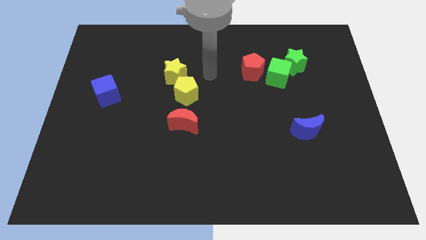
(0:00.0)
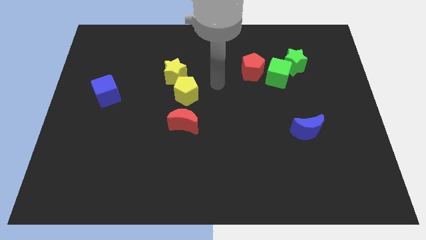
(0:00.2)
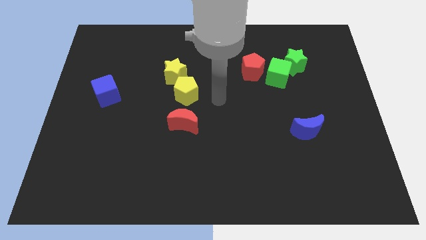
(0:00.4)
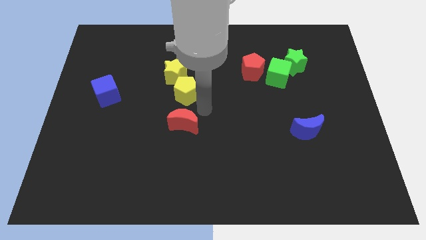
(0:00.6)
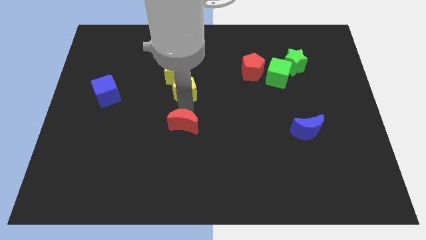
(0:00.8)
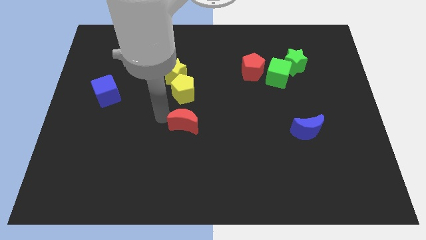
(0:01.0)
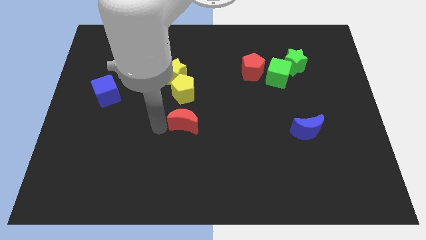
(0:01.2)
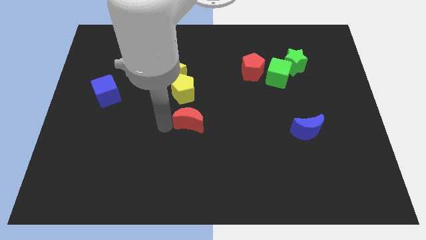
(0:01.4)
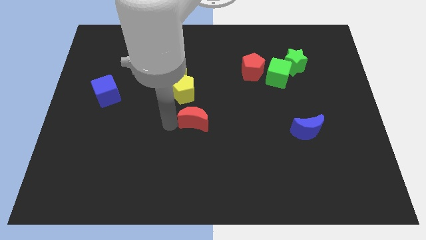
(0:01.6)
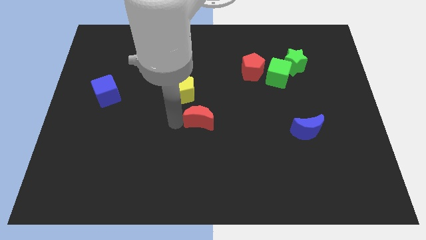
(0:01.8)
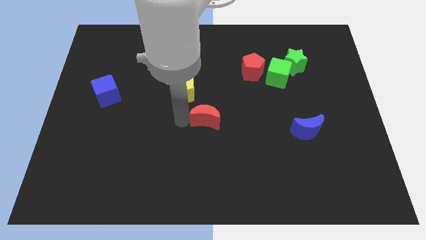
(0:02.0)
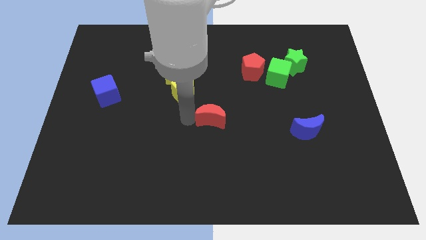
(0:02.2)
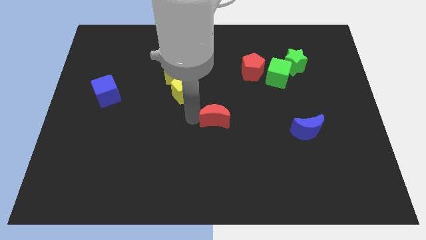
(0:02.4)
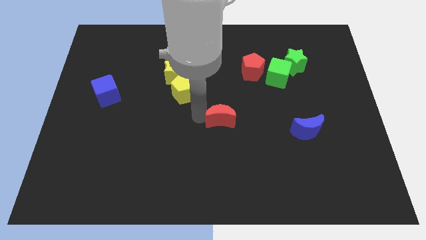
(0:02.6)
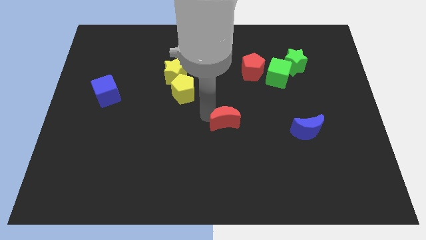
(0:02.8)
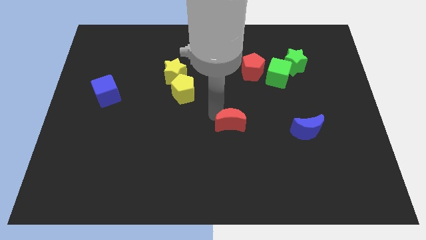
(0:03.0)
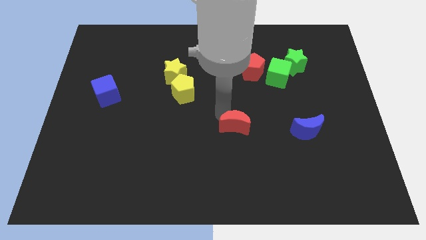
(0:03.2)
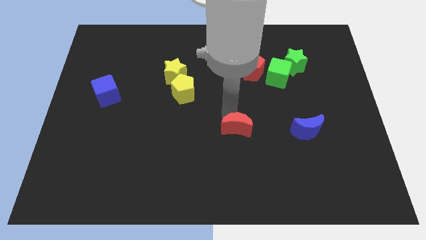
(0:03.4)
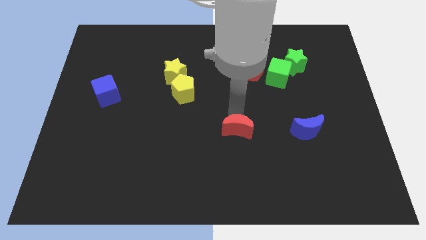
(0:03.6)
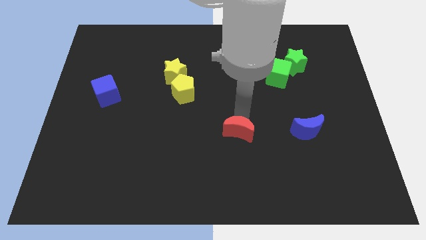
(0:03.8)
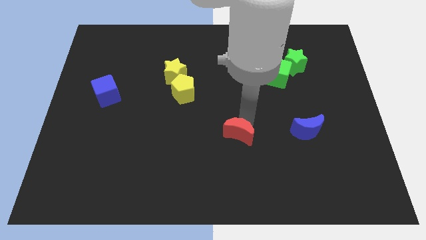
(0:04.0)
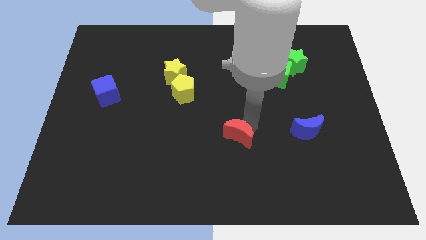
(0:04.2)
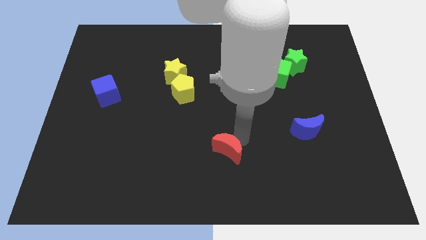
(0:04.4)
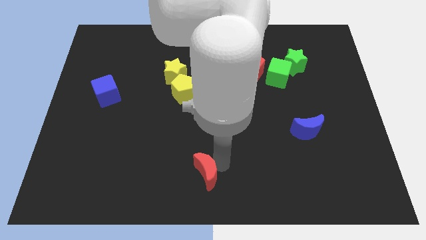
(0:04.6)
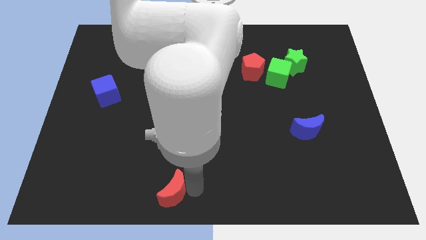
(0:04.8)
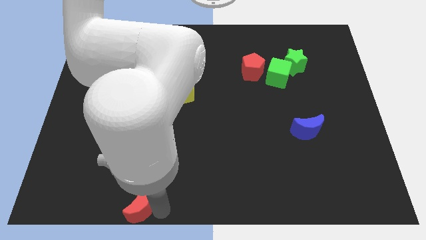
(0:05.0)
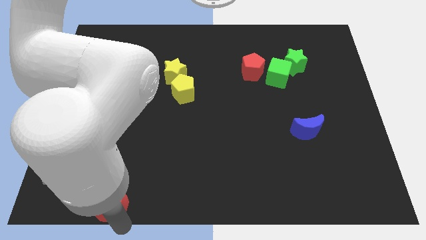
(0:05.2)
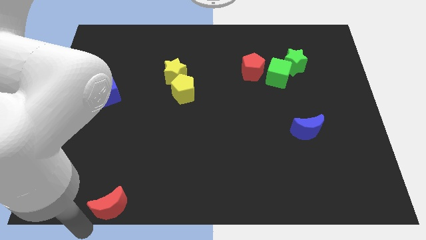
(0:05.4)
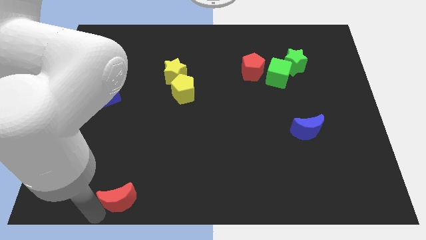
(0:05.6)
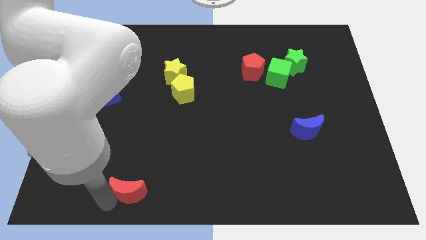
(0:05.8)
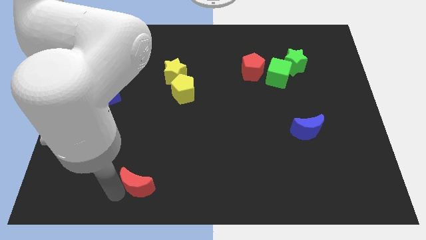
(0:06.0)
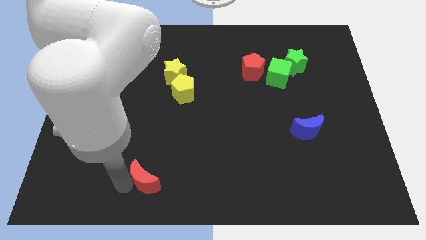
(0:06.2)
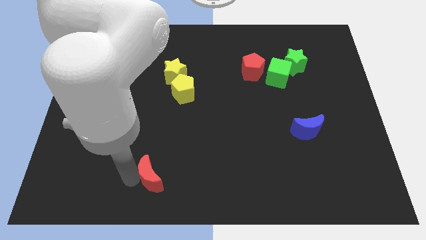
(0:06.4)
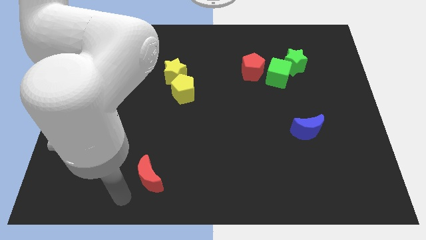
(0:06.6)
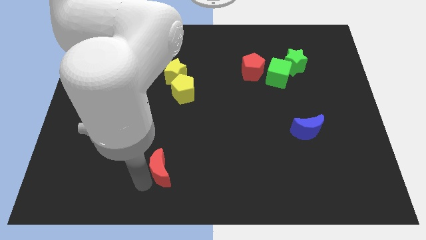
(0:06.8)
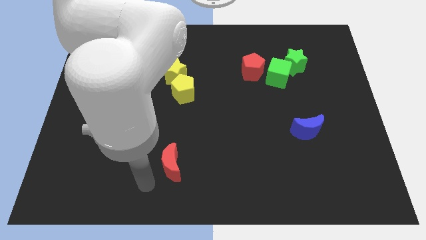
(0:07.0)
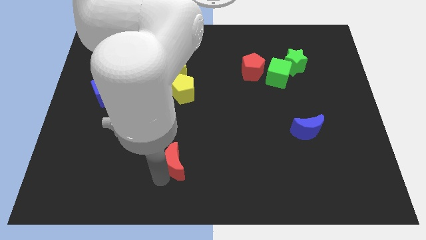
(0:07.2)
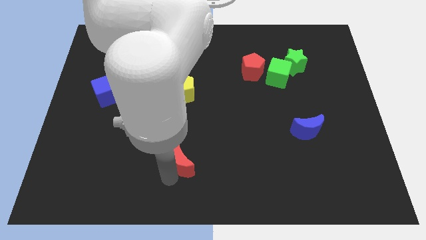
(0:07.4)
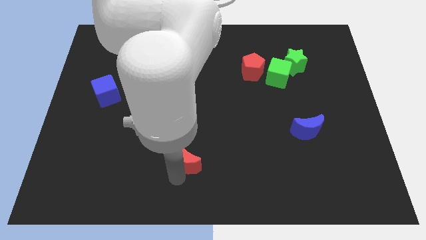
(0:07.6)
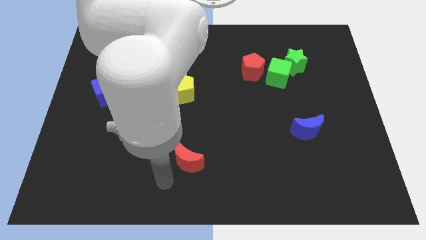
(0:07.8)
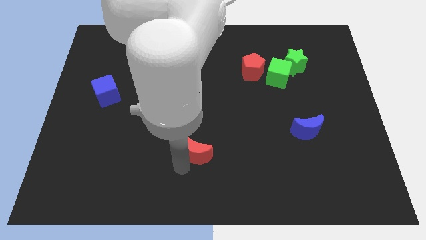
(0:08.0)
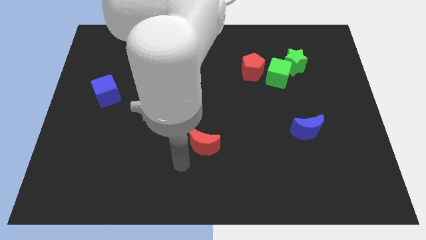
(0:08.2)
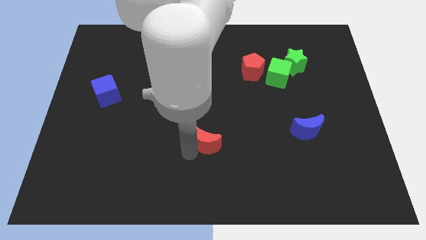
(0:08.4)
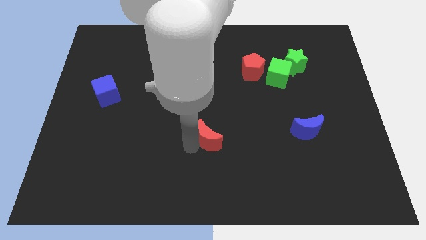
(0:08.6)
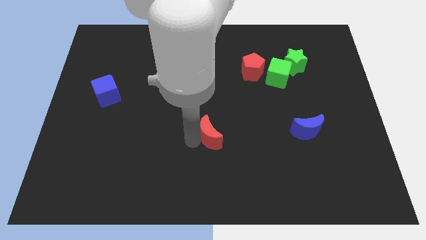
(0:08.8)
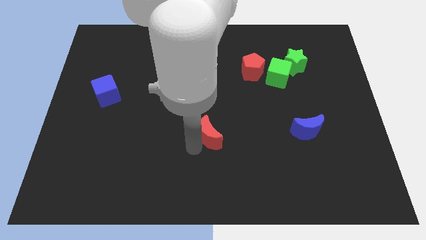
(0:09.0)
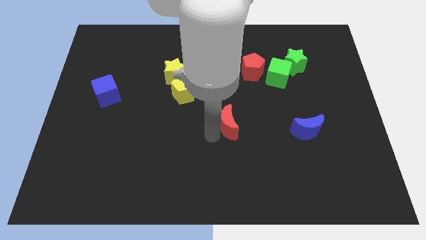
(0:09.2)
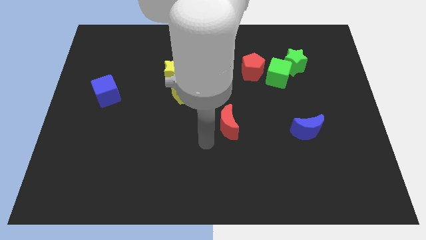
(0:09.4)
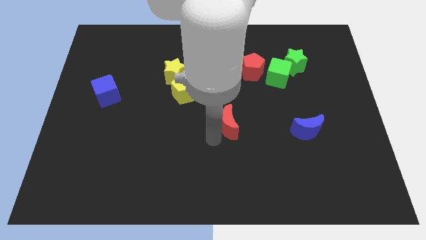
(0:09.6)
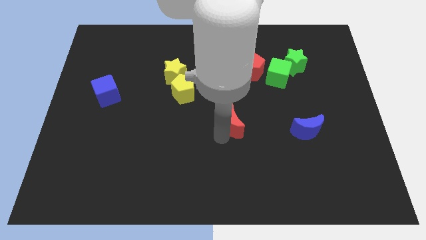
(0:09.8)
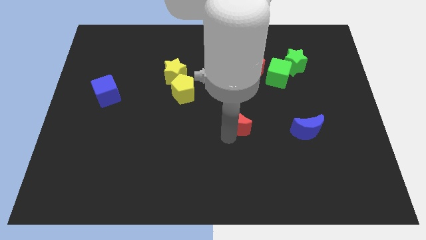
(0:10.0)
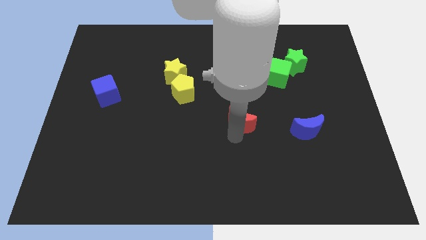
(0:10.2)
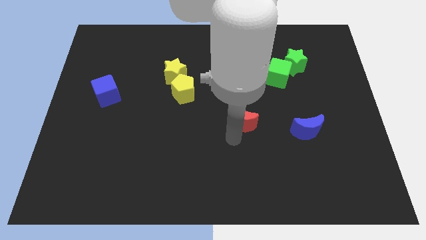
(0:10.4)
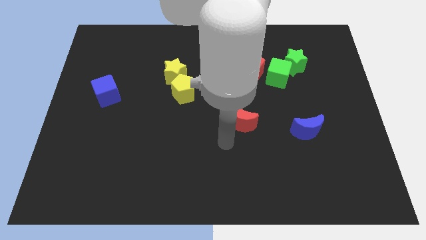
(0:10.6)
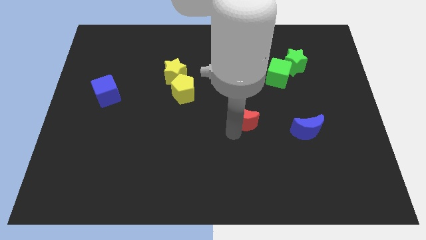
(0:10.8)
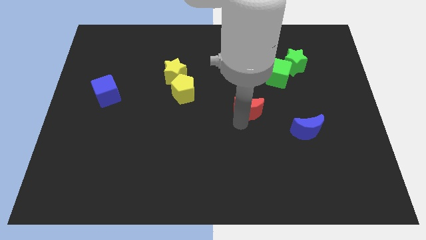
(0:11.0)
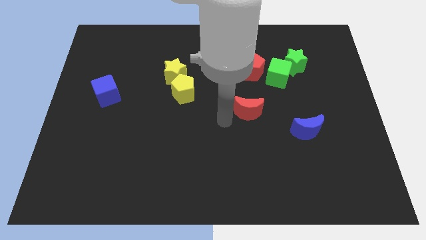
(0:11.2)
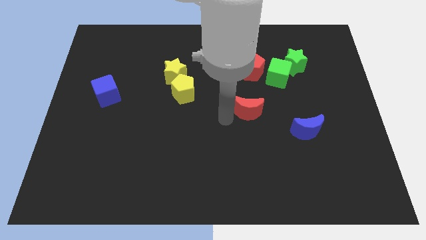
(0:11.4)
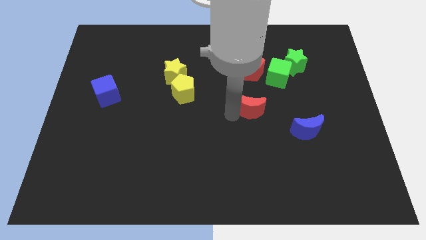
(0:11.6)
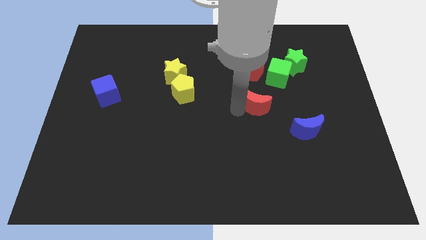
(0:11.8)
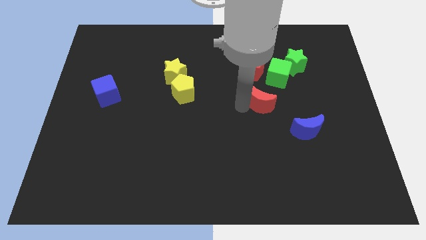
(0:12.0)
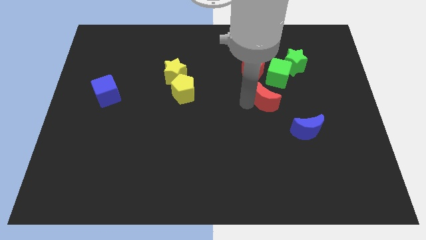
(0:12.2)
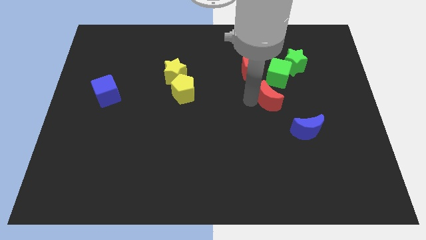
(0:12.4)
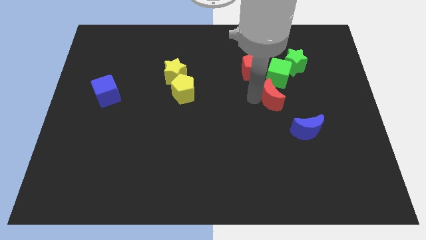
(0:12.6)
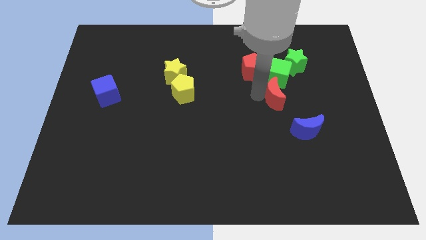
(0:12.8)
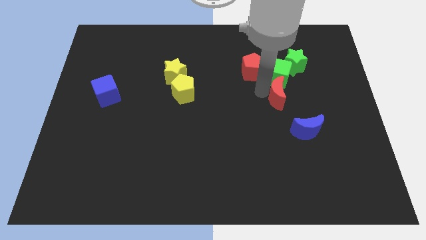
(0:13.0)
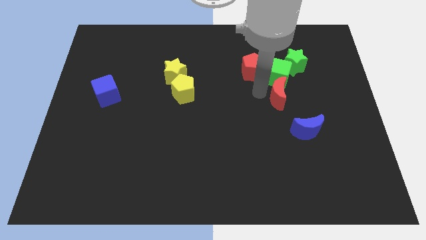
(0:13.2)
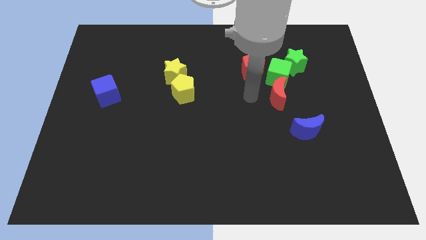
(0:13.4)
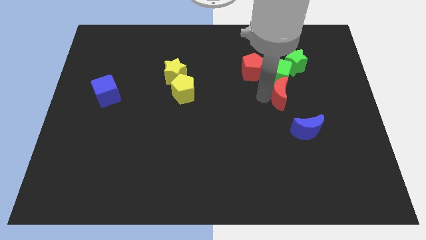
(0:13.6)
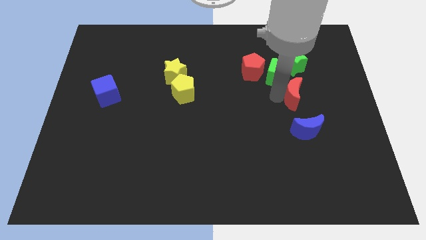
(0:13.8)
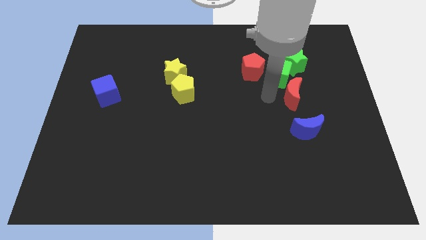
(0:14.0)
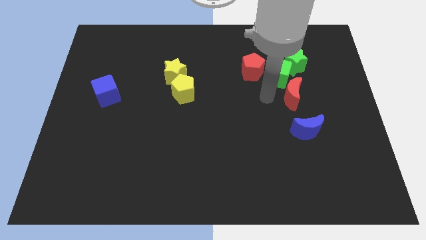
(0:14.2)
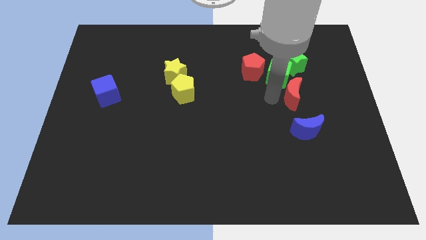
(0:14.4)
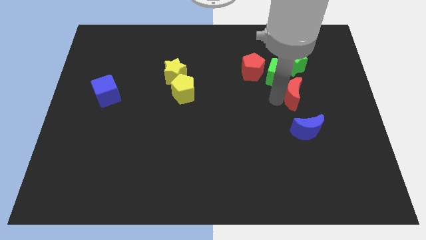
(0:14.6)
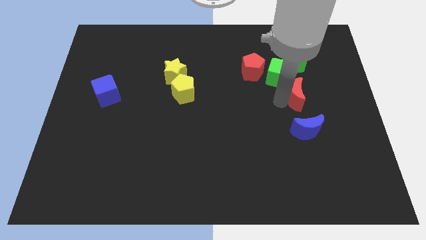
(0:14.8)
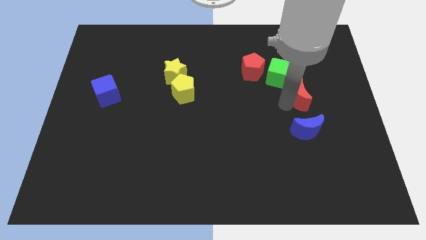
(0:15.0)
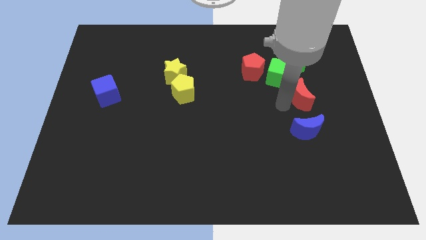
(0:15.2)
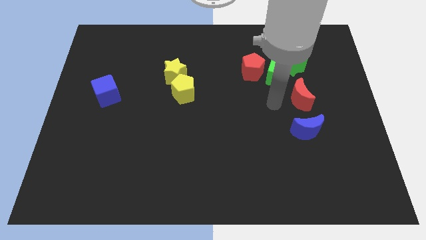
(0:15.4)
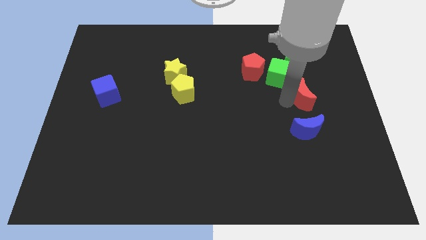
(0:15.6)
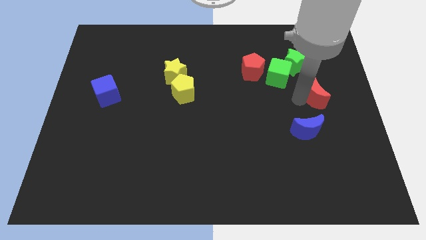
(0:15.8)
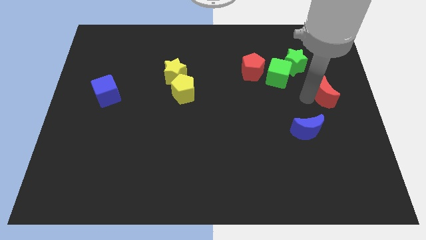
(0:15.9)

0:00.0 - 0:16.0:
move the red moon to the center right
